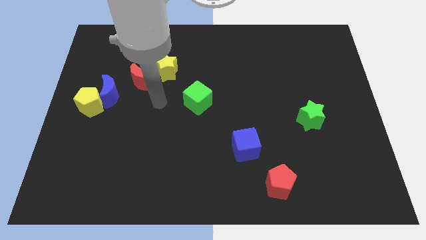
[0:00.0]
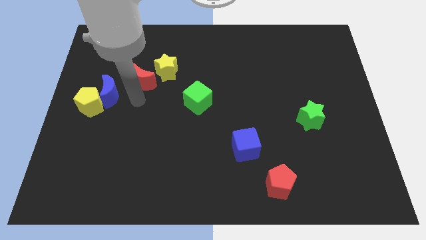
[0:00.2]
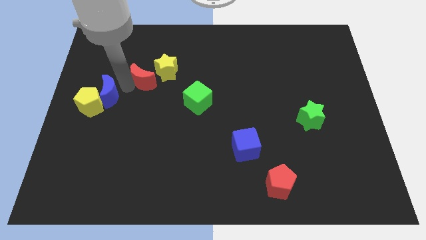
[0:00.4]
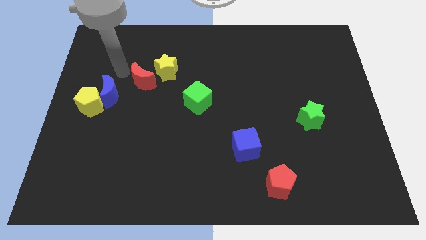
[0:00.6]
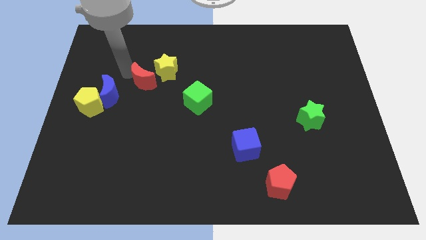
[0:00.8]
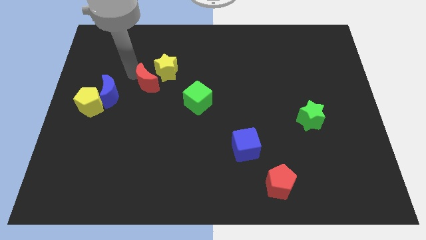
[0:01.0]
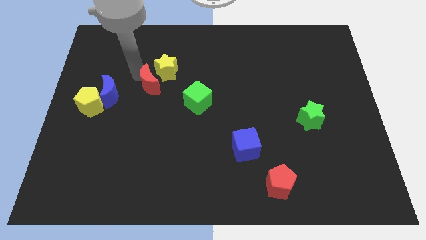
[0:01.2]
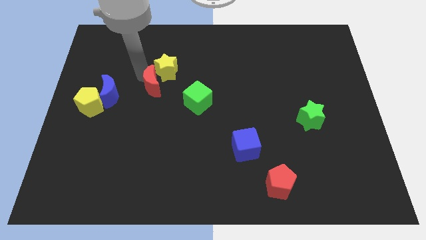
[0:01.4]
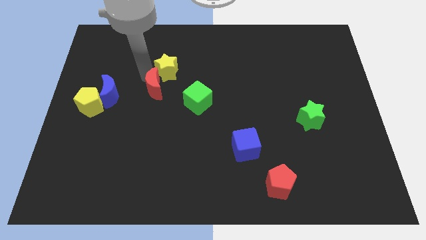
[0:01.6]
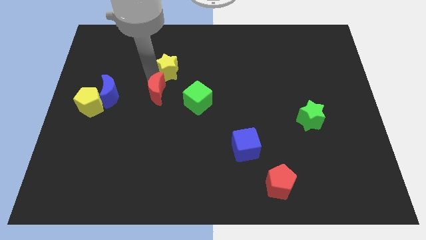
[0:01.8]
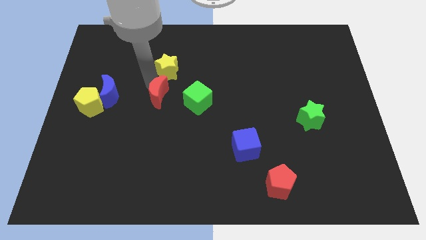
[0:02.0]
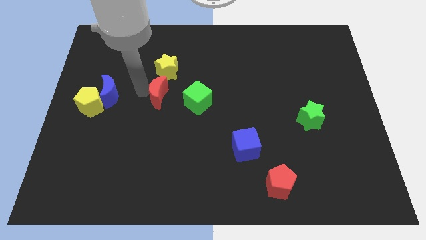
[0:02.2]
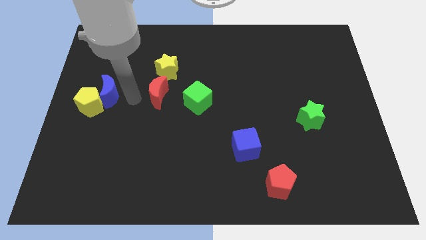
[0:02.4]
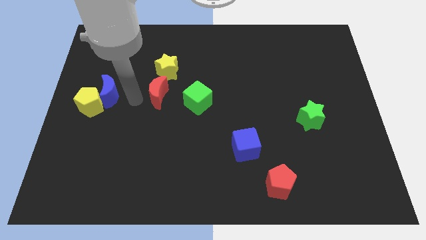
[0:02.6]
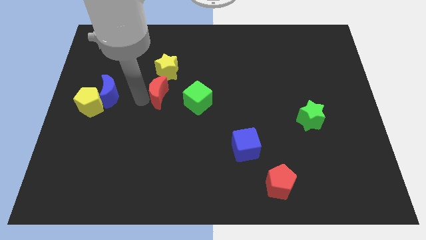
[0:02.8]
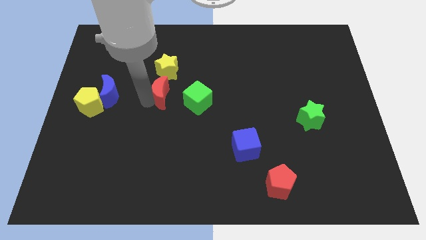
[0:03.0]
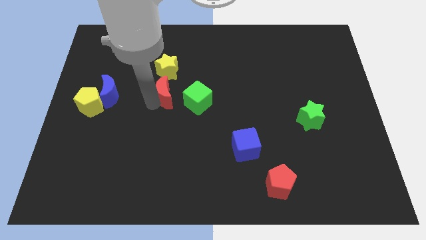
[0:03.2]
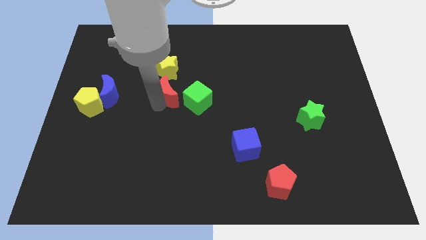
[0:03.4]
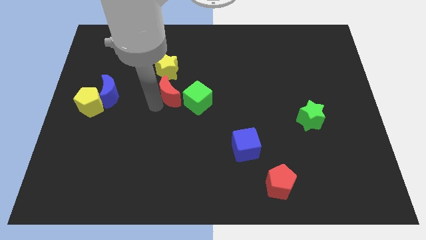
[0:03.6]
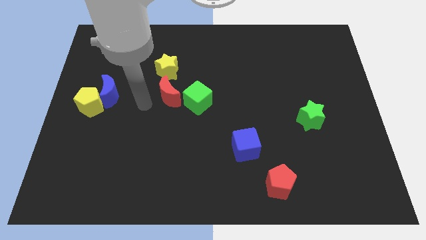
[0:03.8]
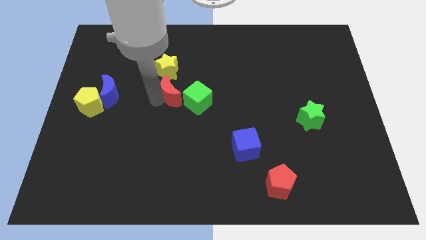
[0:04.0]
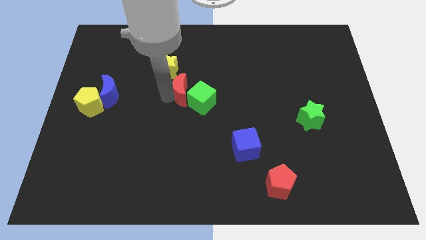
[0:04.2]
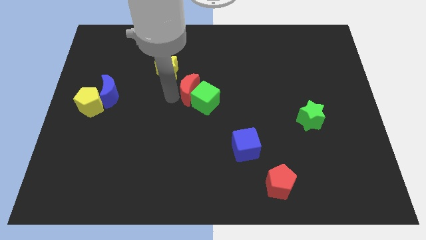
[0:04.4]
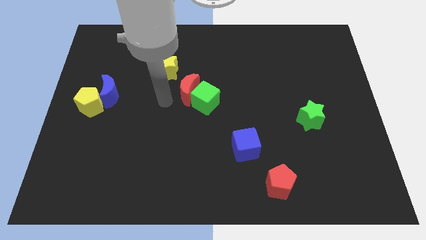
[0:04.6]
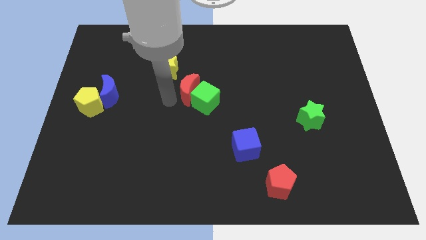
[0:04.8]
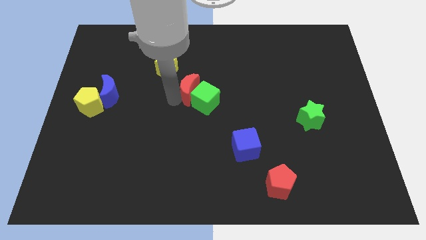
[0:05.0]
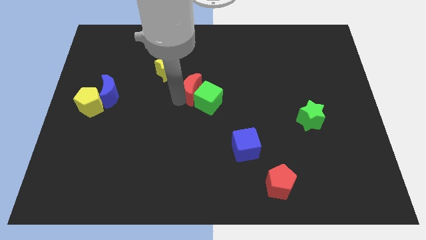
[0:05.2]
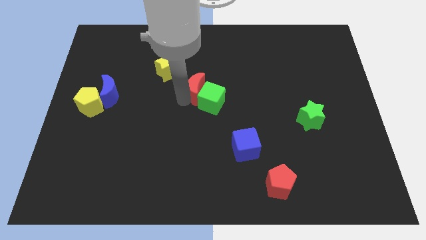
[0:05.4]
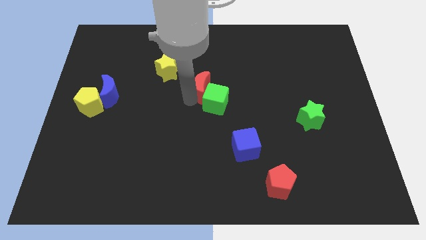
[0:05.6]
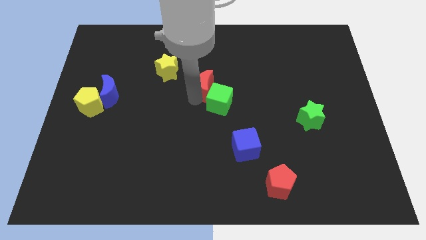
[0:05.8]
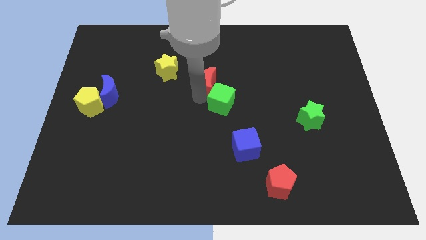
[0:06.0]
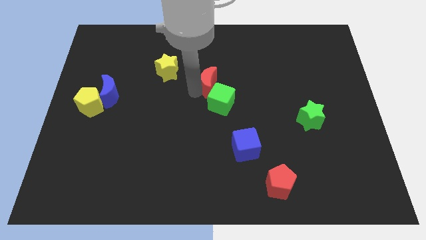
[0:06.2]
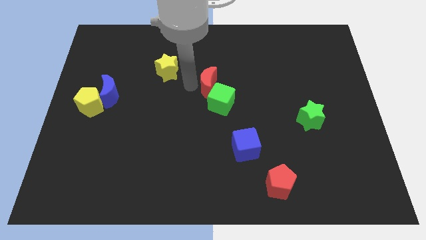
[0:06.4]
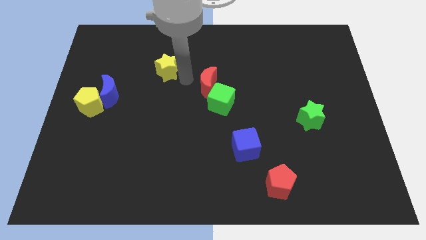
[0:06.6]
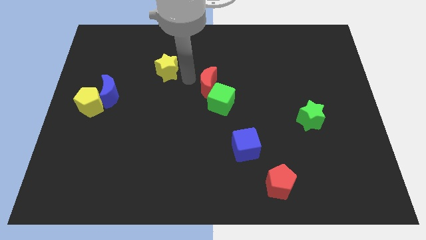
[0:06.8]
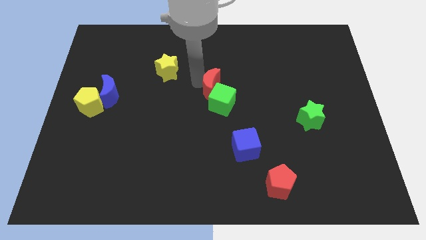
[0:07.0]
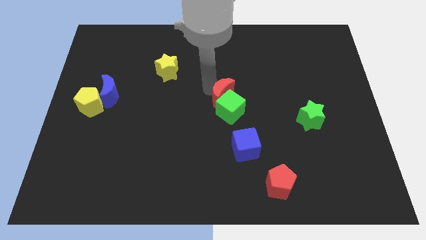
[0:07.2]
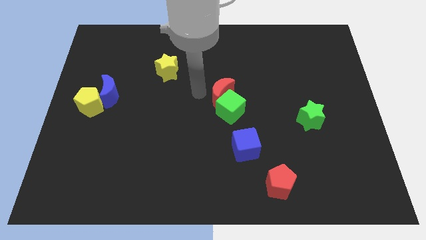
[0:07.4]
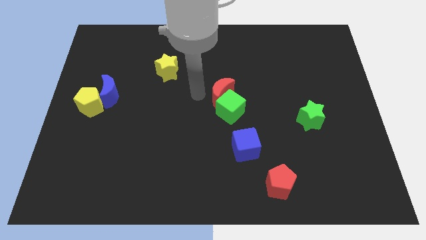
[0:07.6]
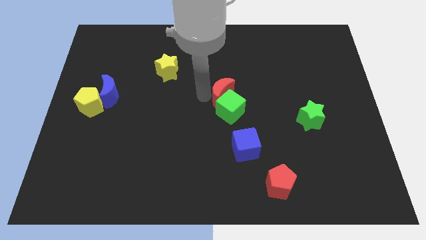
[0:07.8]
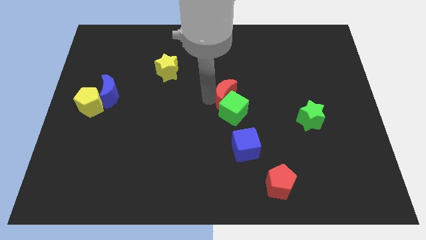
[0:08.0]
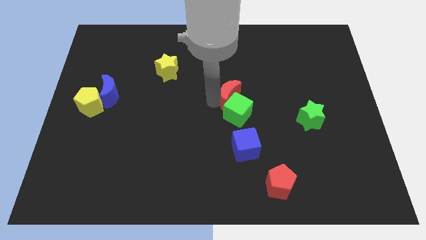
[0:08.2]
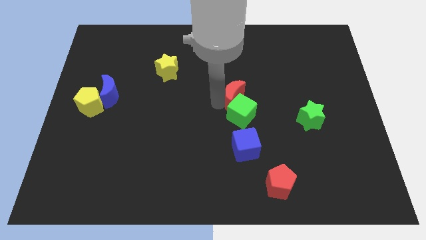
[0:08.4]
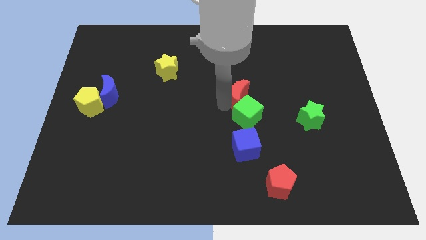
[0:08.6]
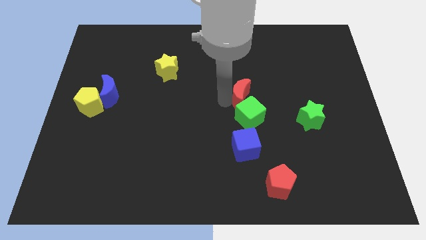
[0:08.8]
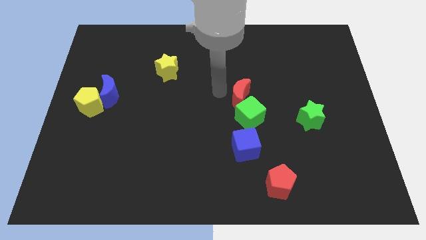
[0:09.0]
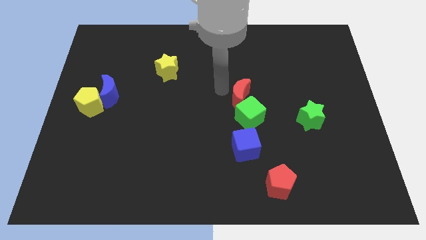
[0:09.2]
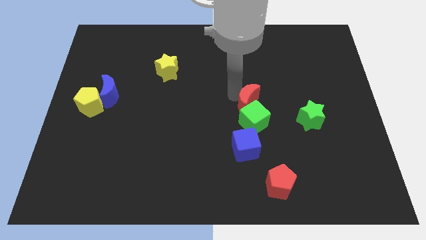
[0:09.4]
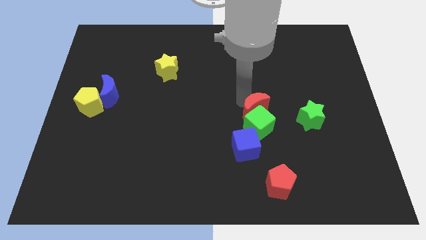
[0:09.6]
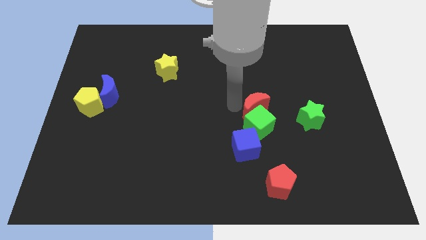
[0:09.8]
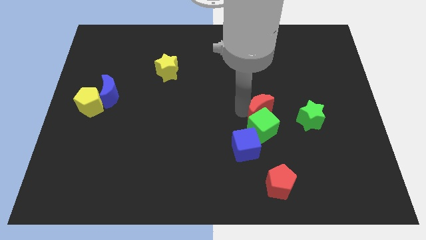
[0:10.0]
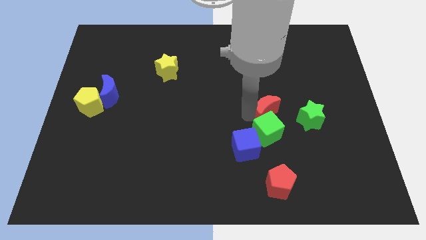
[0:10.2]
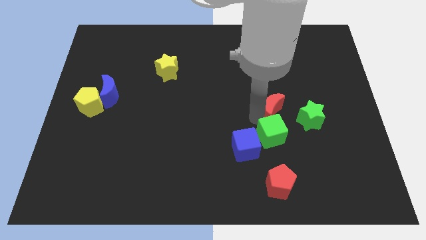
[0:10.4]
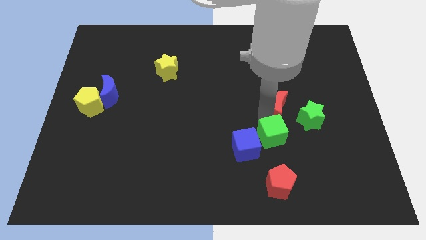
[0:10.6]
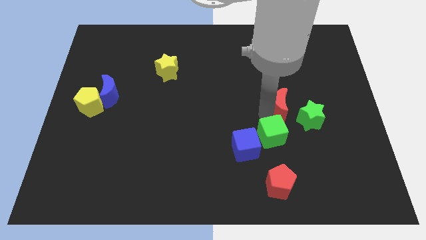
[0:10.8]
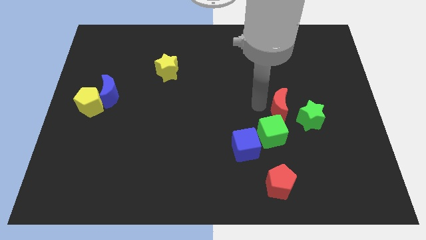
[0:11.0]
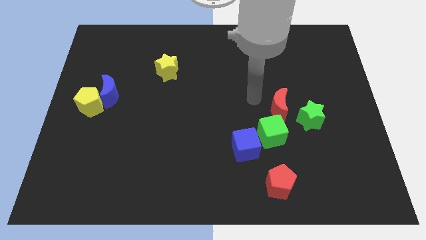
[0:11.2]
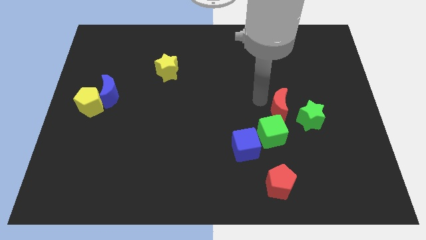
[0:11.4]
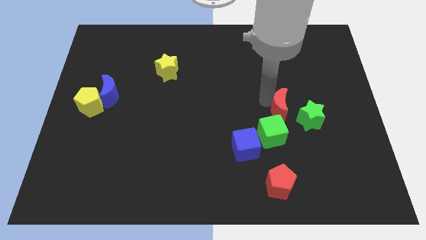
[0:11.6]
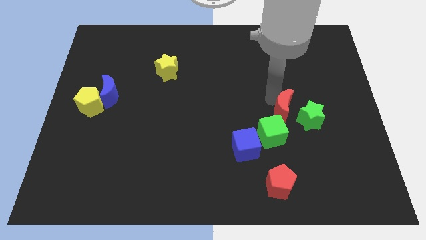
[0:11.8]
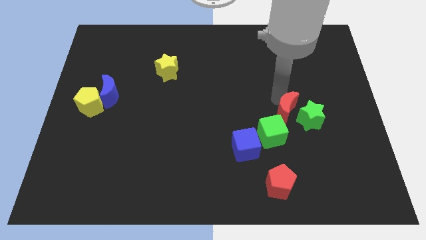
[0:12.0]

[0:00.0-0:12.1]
move the red moon close to the green star

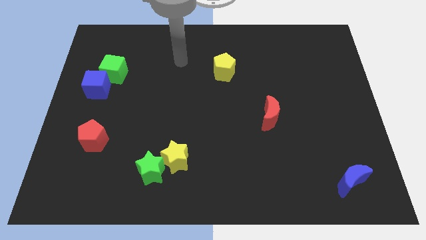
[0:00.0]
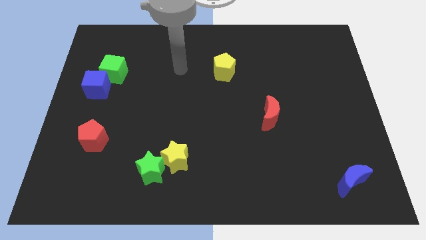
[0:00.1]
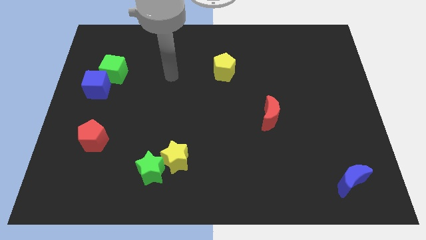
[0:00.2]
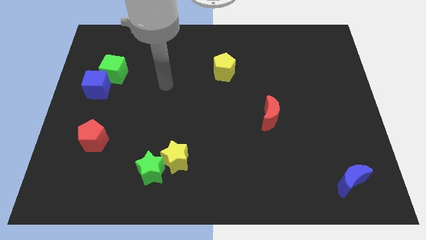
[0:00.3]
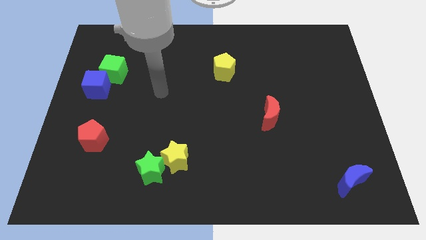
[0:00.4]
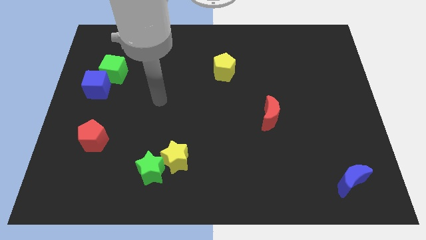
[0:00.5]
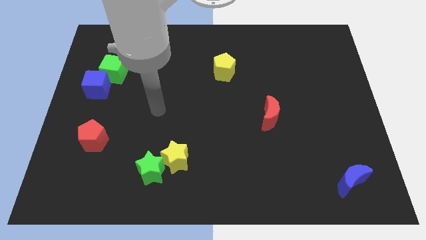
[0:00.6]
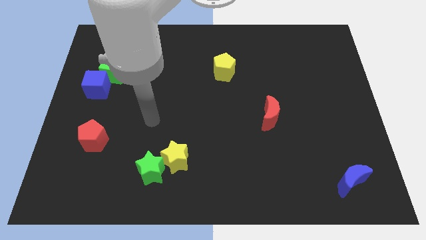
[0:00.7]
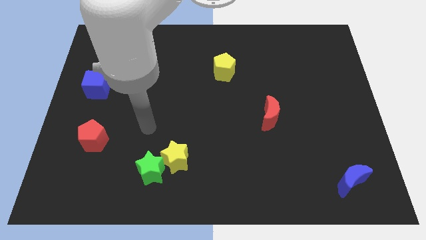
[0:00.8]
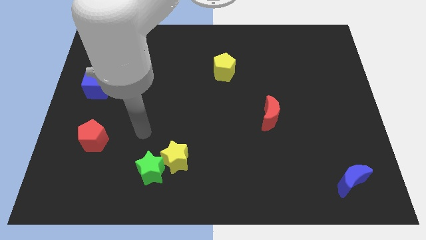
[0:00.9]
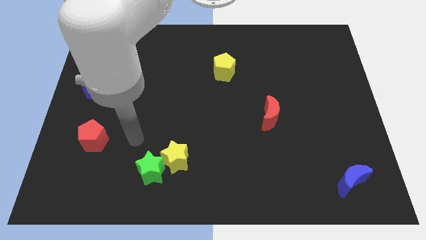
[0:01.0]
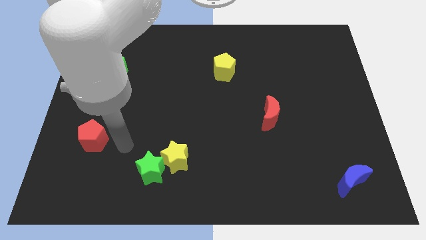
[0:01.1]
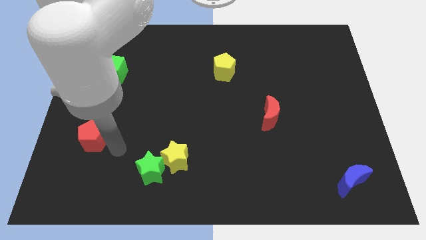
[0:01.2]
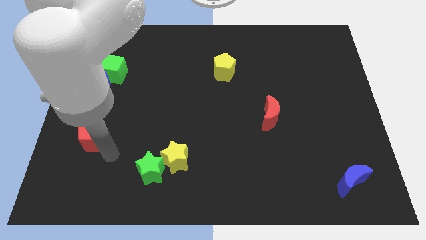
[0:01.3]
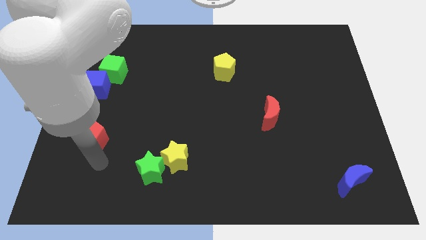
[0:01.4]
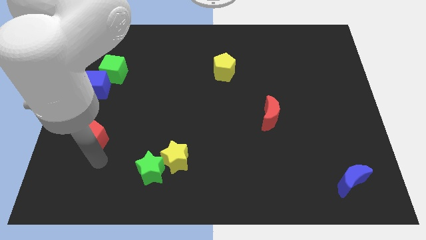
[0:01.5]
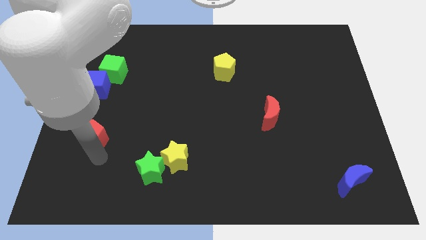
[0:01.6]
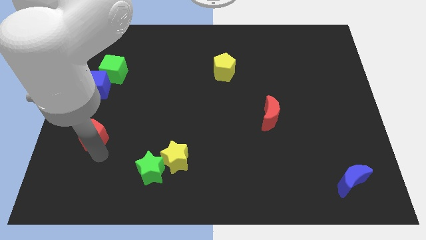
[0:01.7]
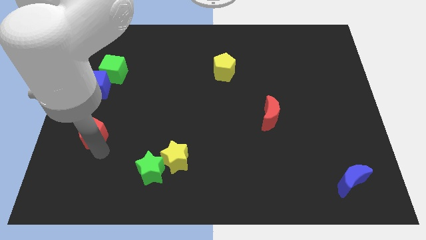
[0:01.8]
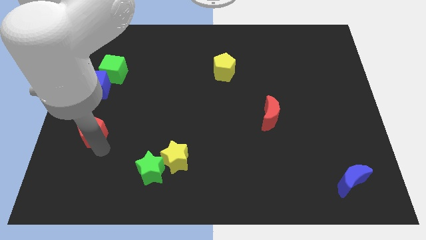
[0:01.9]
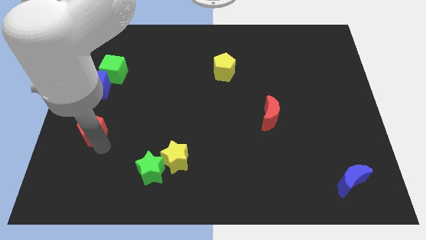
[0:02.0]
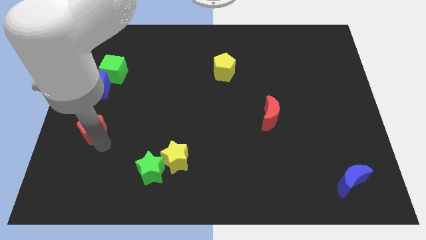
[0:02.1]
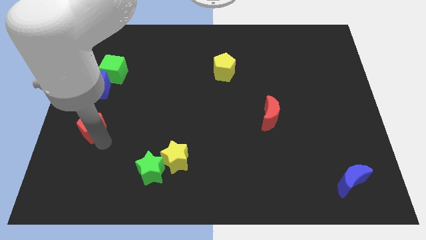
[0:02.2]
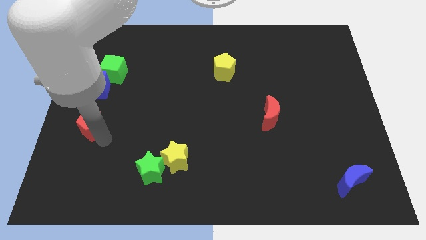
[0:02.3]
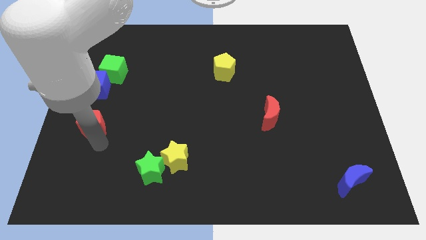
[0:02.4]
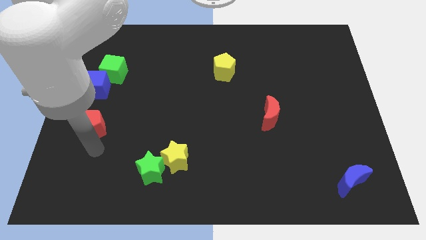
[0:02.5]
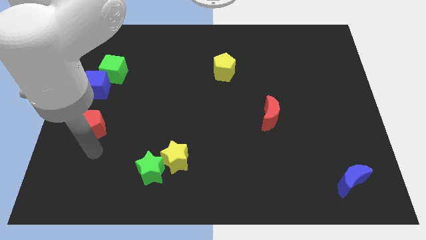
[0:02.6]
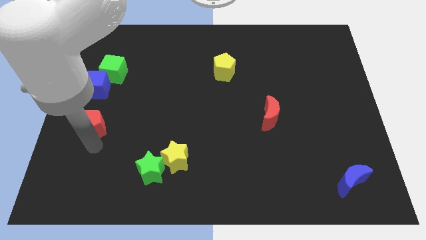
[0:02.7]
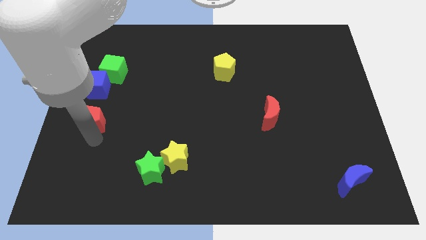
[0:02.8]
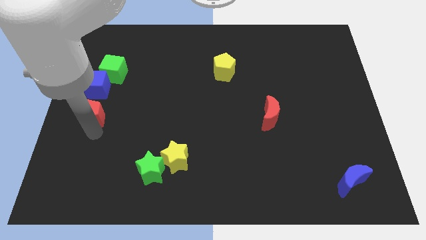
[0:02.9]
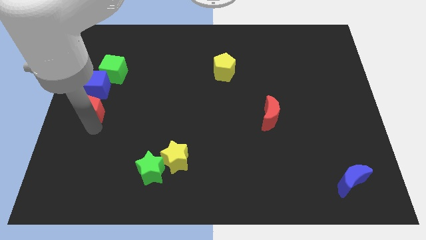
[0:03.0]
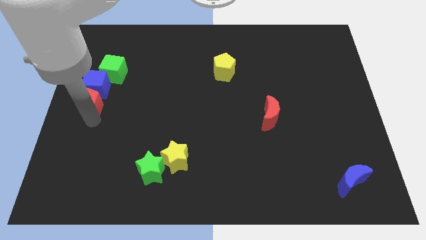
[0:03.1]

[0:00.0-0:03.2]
put the red pentagon close to the blue cube
